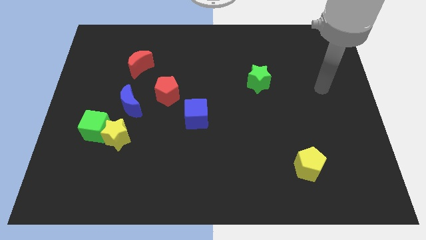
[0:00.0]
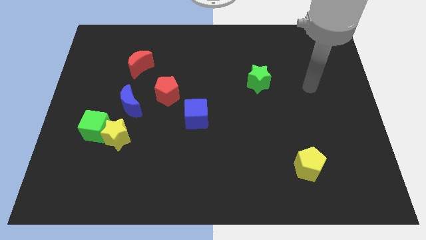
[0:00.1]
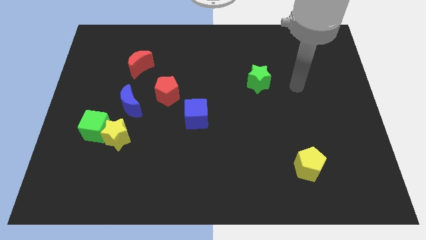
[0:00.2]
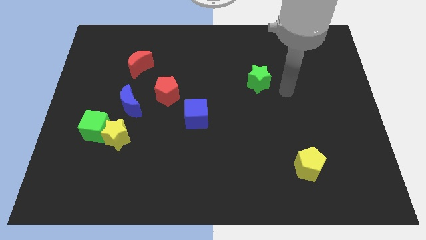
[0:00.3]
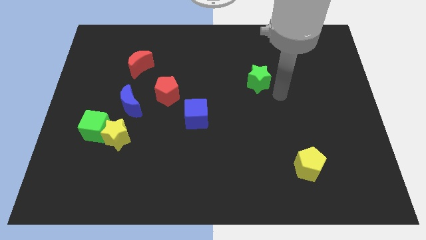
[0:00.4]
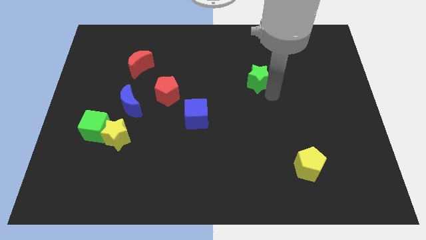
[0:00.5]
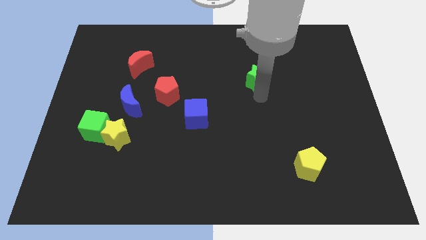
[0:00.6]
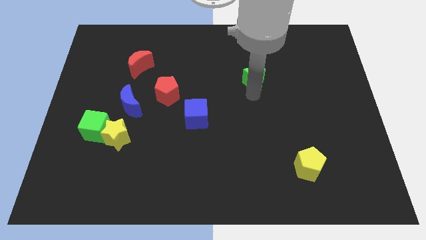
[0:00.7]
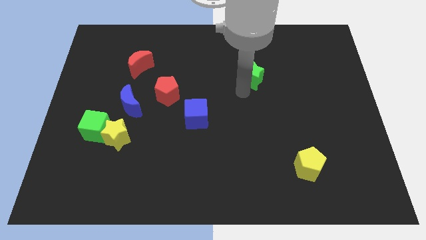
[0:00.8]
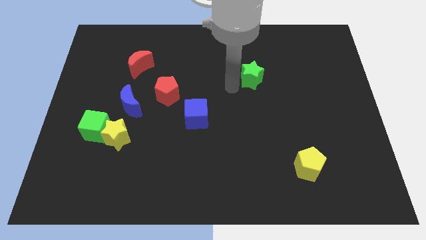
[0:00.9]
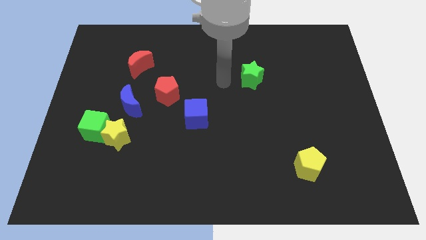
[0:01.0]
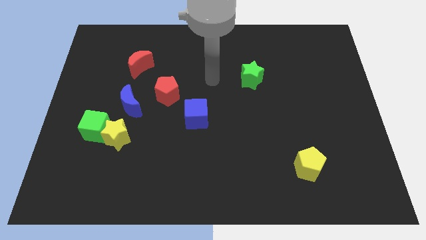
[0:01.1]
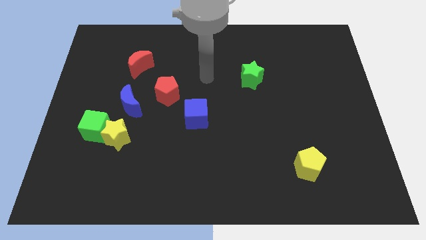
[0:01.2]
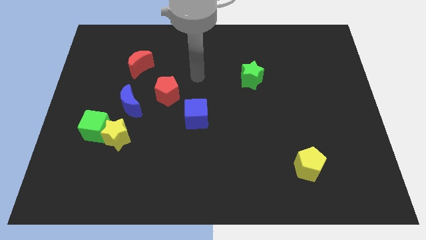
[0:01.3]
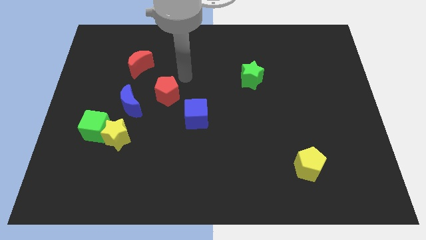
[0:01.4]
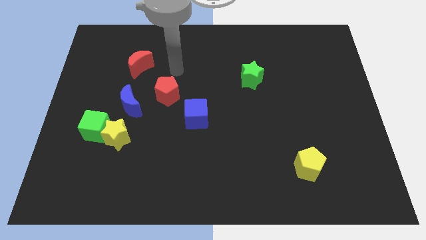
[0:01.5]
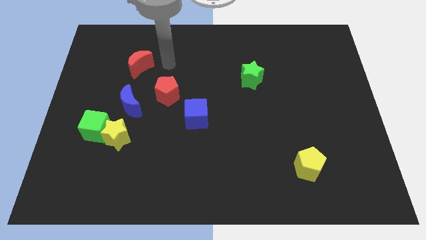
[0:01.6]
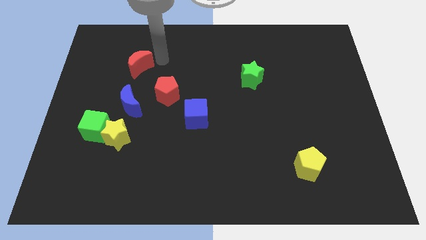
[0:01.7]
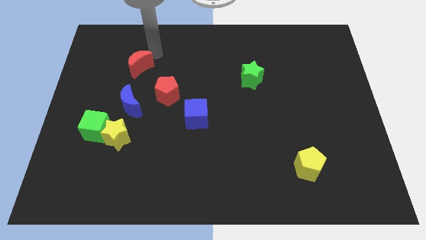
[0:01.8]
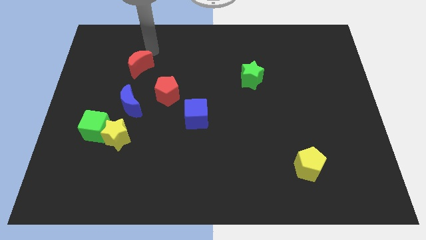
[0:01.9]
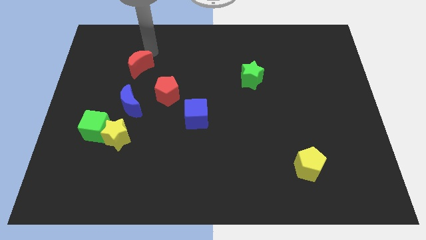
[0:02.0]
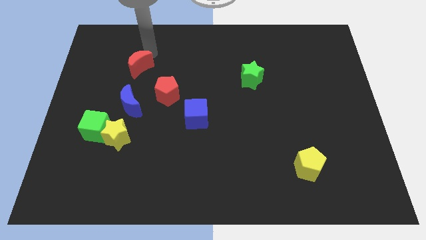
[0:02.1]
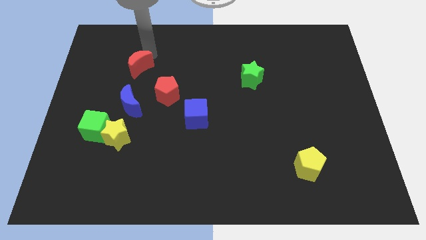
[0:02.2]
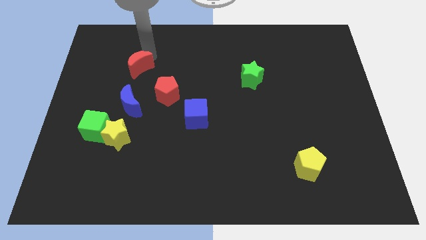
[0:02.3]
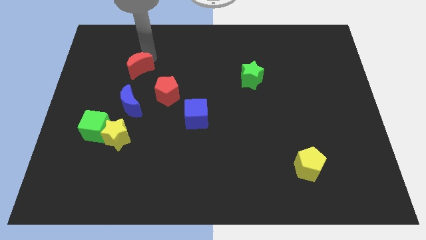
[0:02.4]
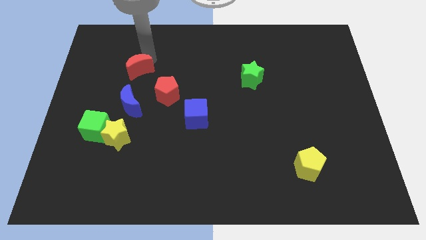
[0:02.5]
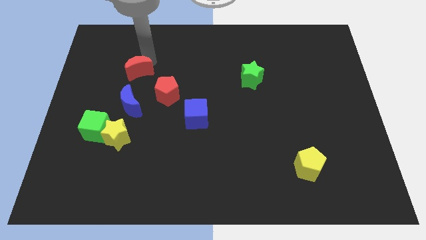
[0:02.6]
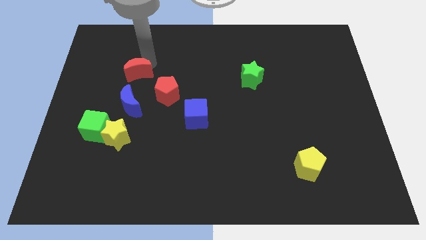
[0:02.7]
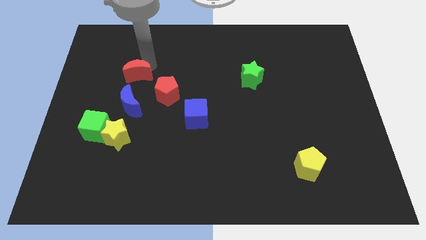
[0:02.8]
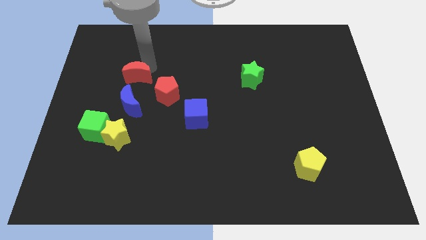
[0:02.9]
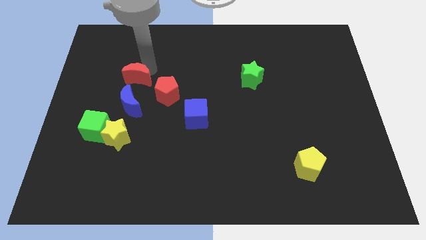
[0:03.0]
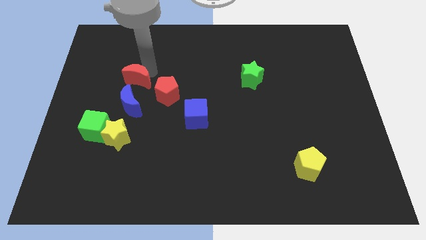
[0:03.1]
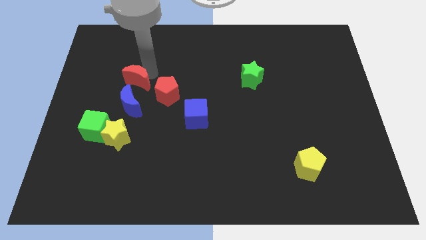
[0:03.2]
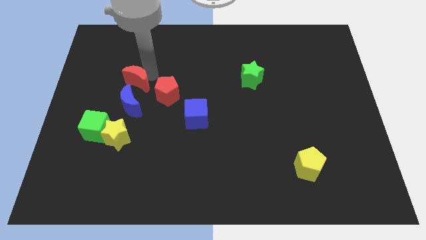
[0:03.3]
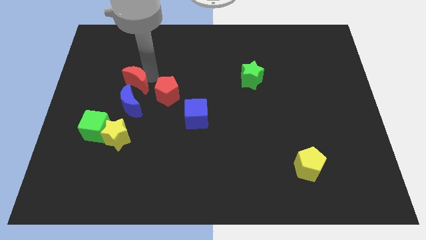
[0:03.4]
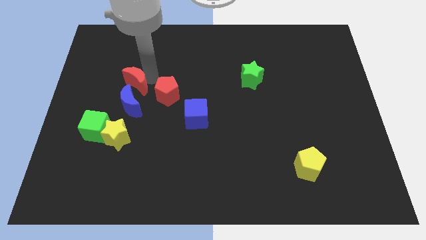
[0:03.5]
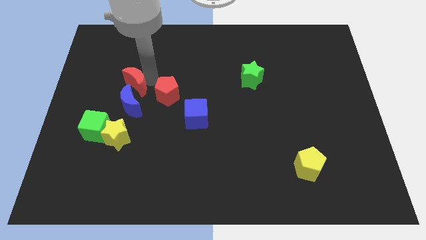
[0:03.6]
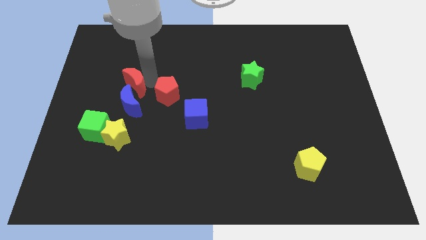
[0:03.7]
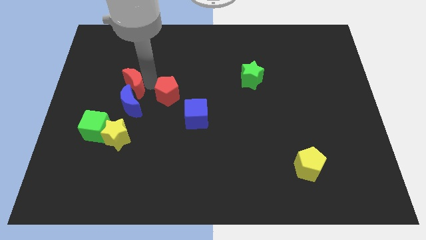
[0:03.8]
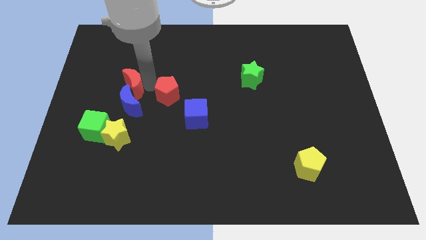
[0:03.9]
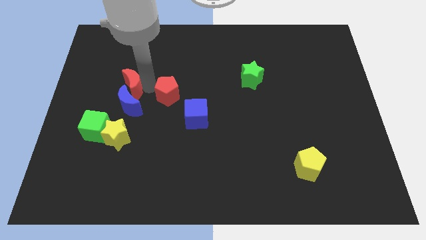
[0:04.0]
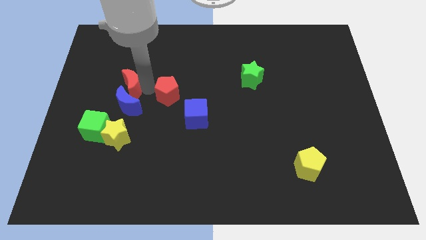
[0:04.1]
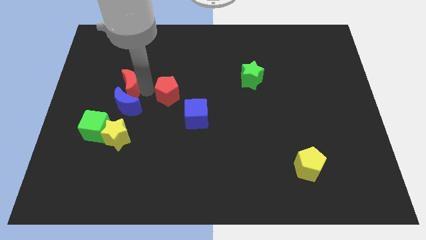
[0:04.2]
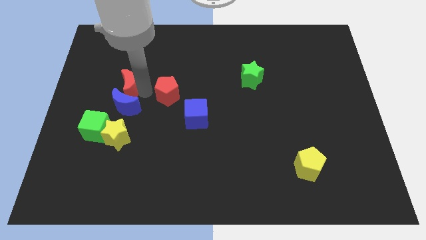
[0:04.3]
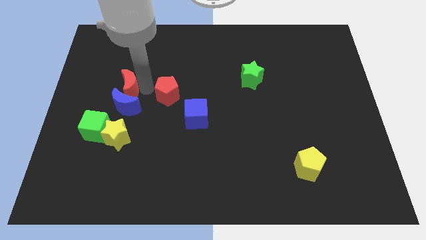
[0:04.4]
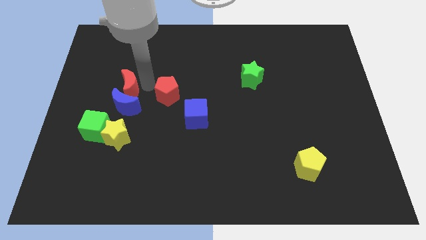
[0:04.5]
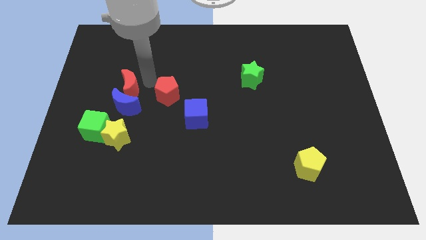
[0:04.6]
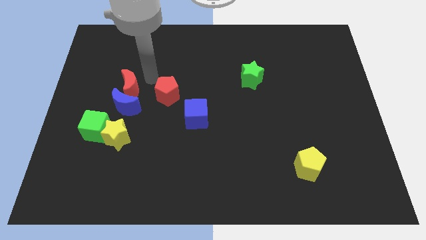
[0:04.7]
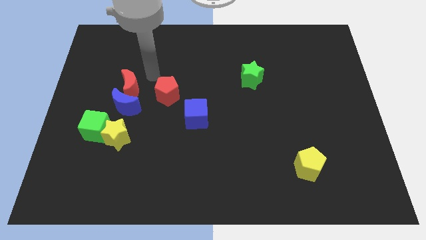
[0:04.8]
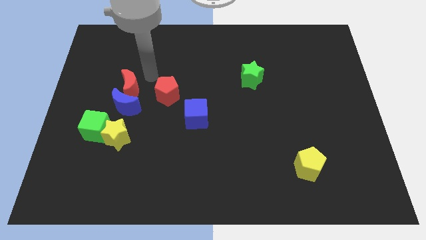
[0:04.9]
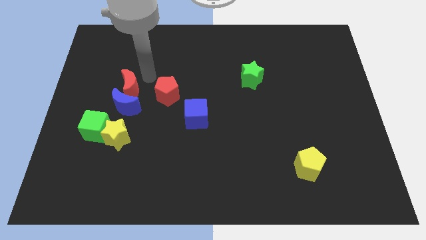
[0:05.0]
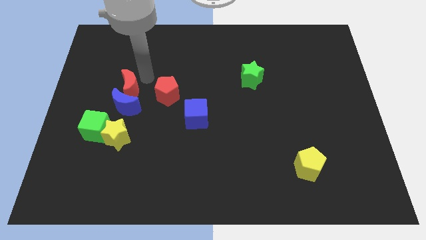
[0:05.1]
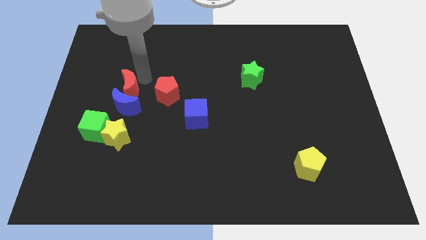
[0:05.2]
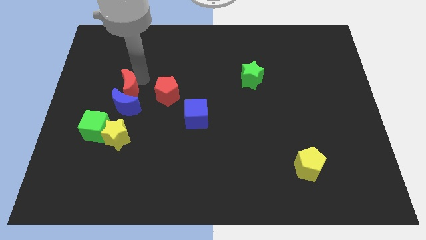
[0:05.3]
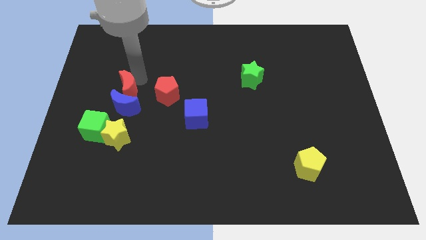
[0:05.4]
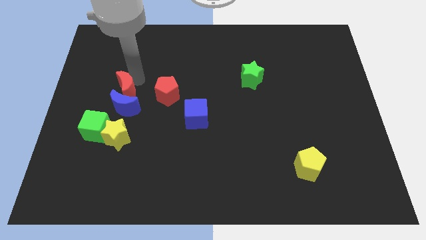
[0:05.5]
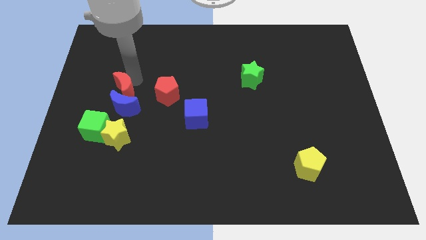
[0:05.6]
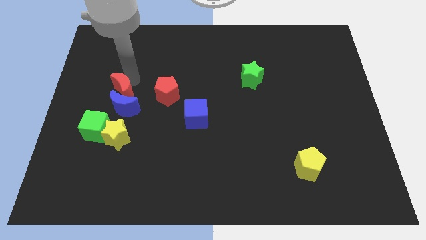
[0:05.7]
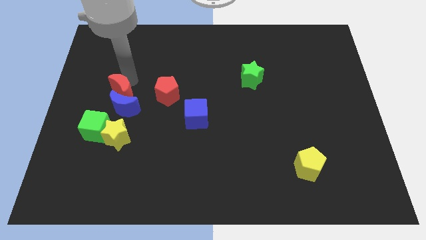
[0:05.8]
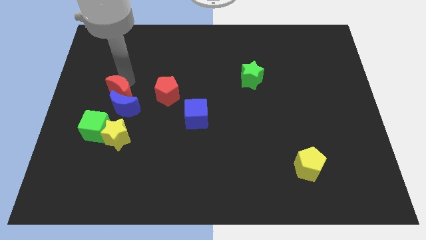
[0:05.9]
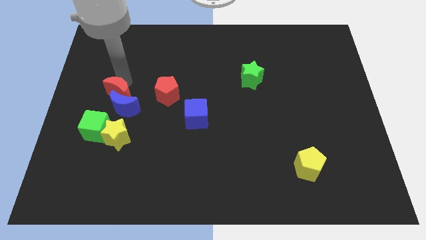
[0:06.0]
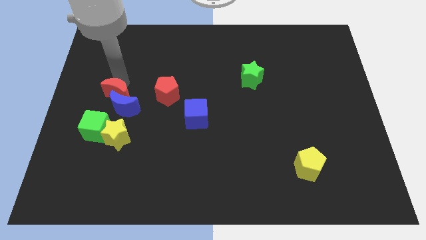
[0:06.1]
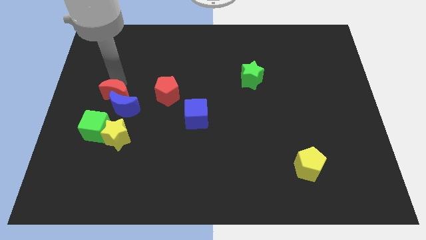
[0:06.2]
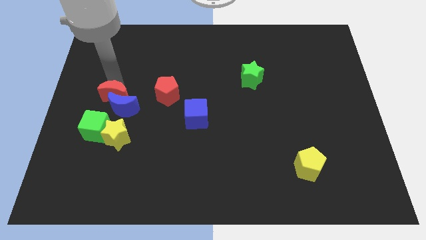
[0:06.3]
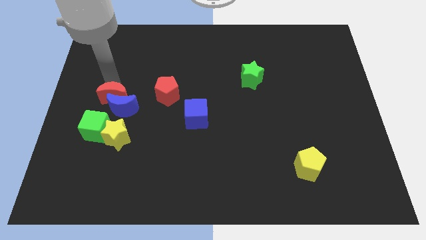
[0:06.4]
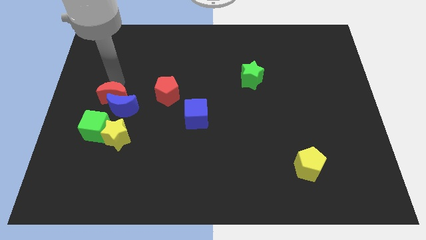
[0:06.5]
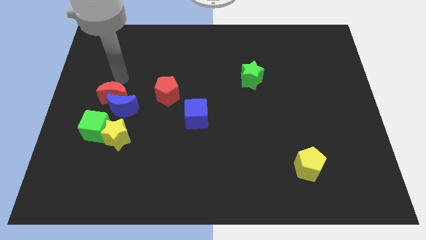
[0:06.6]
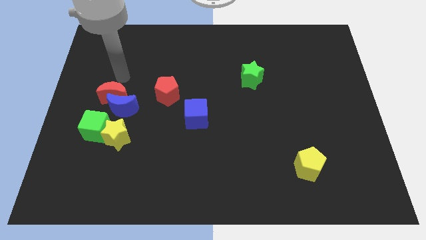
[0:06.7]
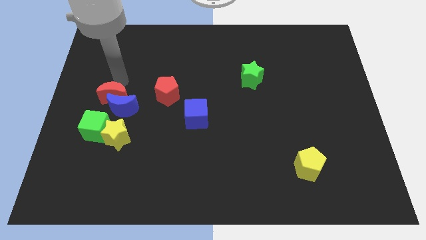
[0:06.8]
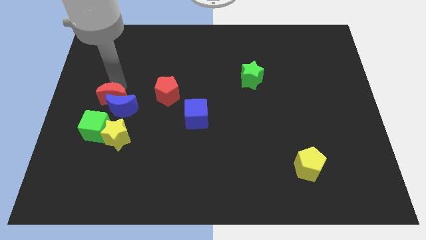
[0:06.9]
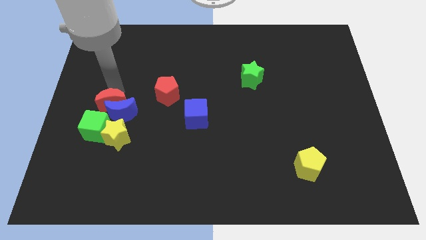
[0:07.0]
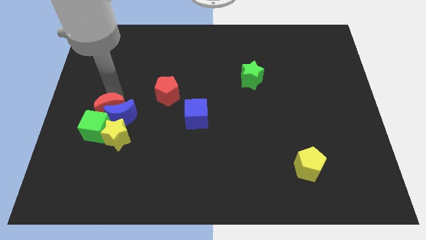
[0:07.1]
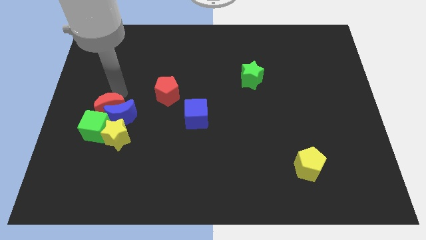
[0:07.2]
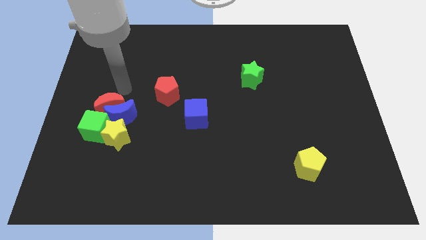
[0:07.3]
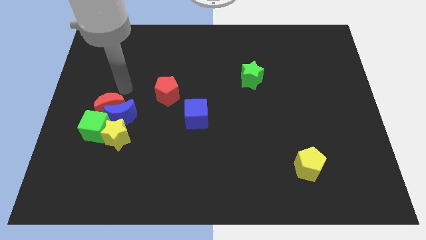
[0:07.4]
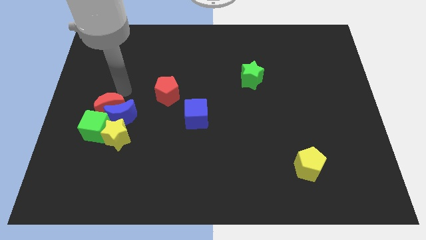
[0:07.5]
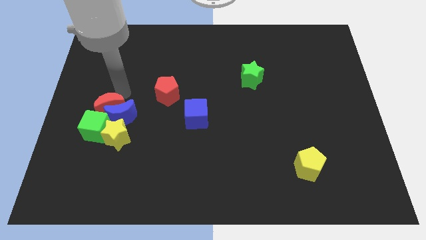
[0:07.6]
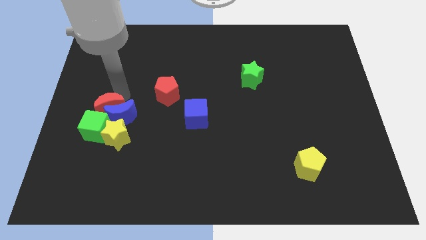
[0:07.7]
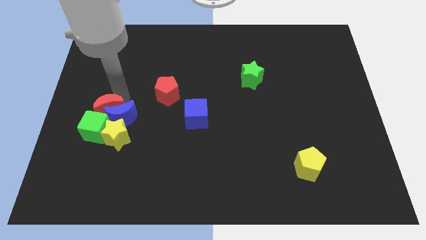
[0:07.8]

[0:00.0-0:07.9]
push the red moon towards the green cube
